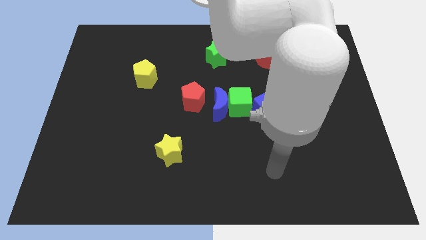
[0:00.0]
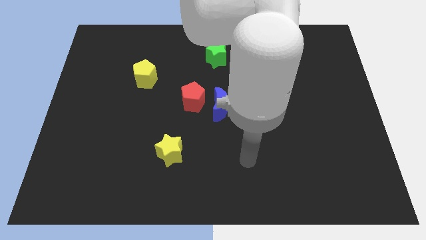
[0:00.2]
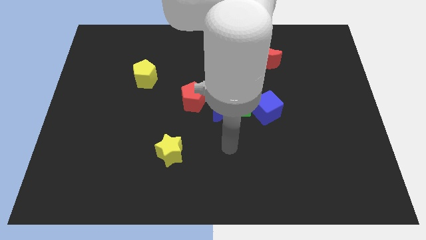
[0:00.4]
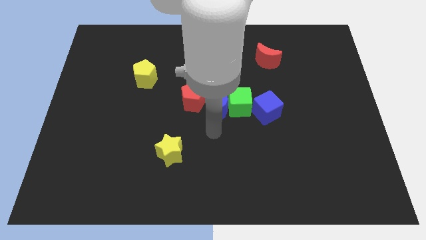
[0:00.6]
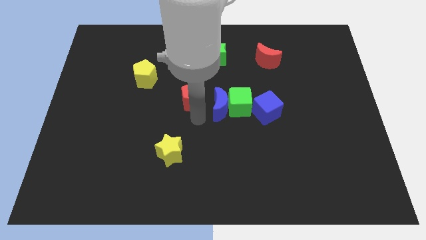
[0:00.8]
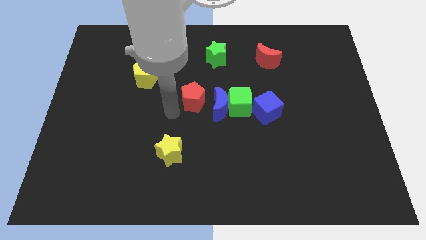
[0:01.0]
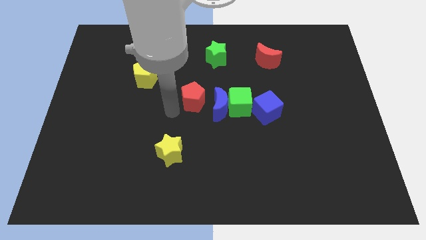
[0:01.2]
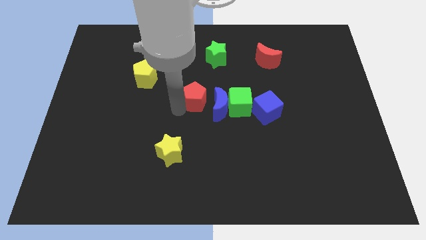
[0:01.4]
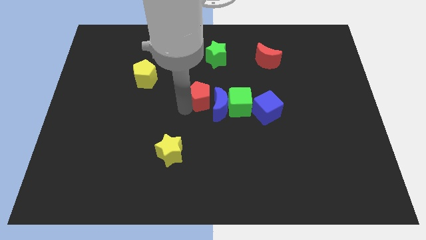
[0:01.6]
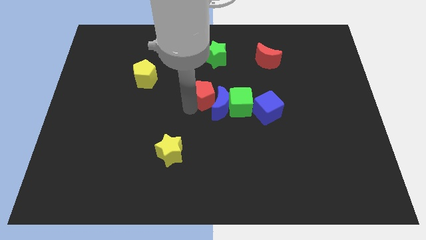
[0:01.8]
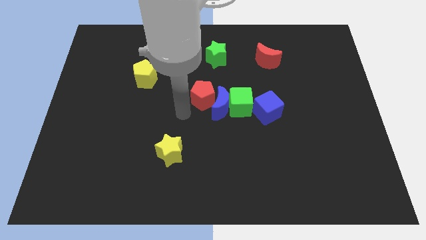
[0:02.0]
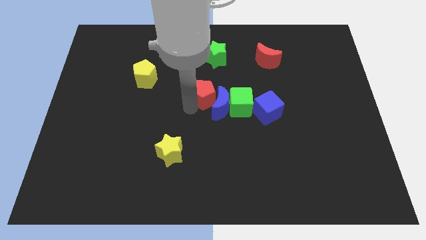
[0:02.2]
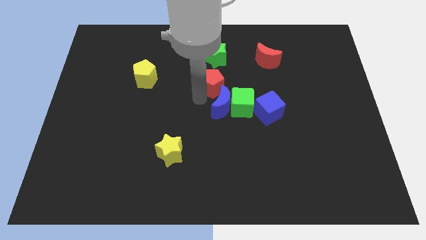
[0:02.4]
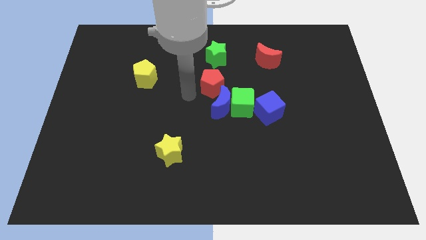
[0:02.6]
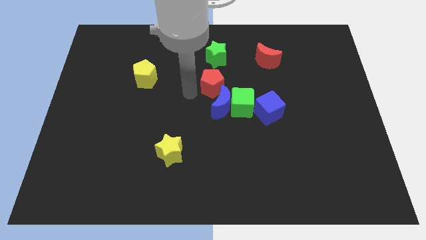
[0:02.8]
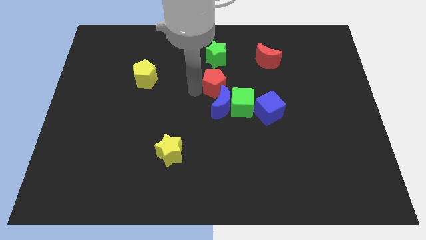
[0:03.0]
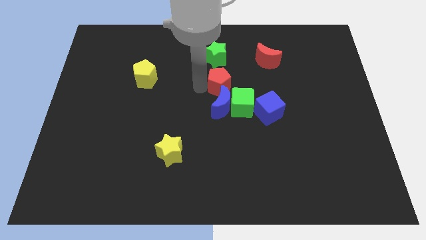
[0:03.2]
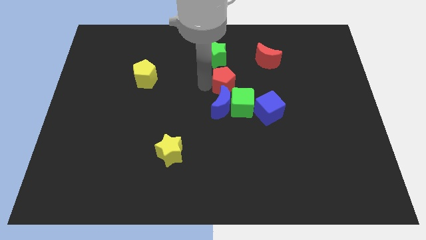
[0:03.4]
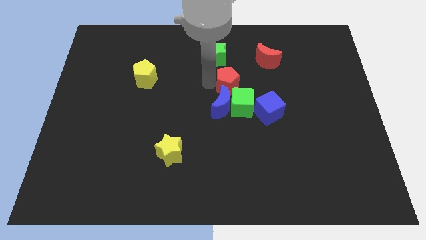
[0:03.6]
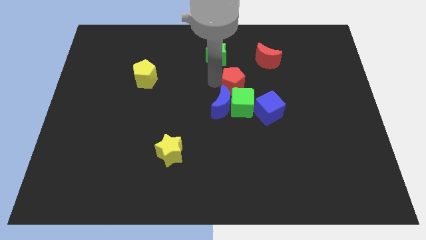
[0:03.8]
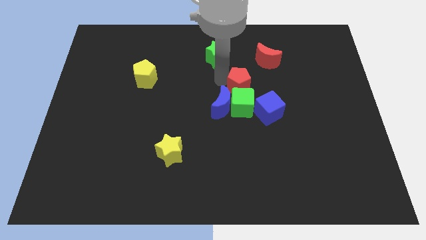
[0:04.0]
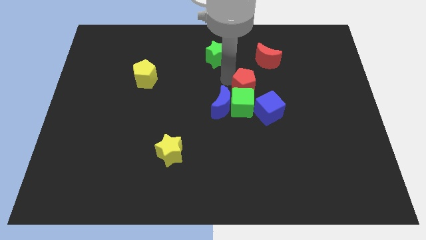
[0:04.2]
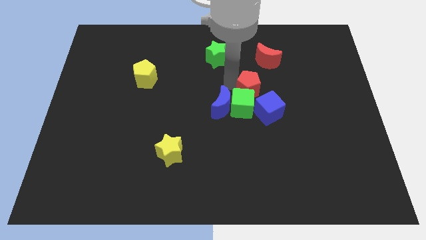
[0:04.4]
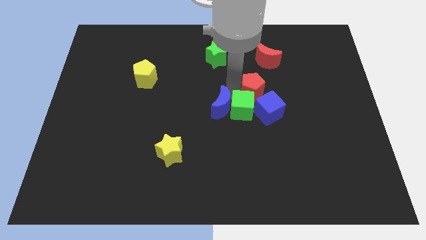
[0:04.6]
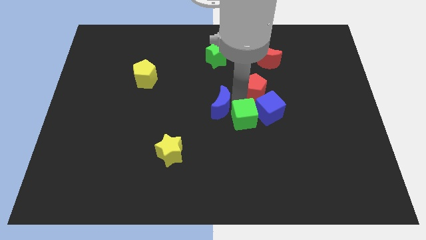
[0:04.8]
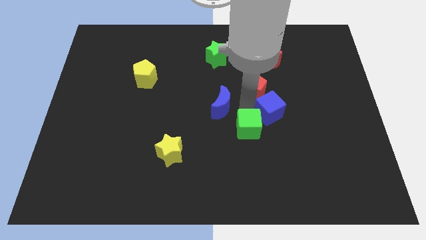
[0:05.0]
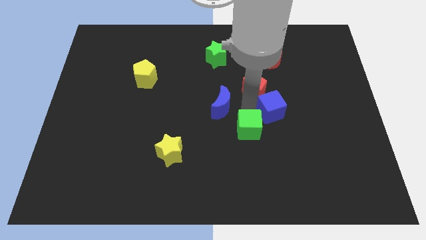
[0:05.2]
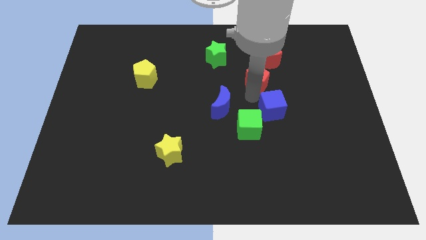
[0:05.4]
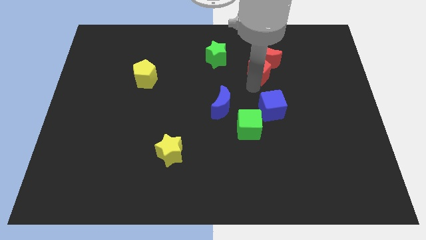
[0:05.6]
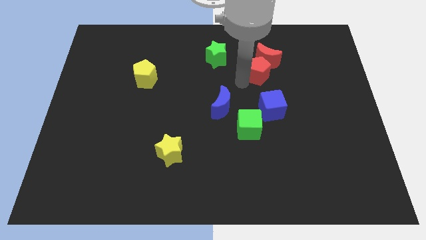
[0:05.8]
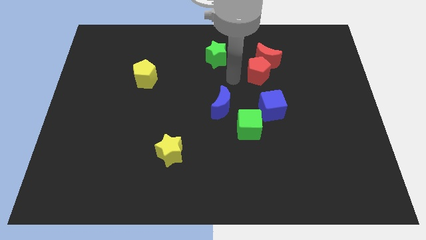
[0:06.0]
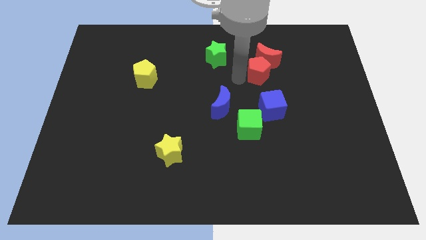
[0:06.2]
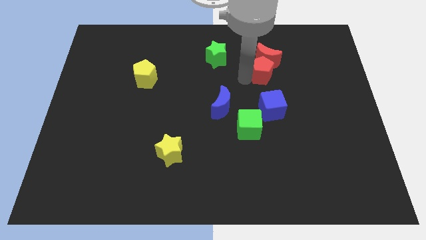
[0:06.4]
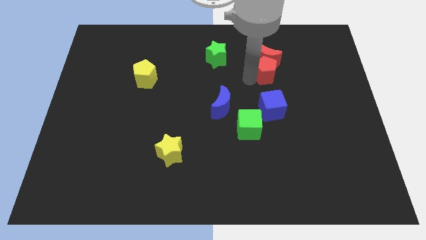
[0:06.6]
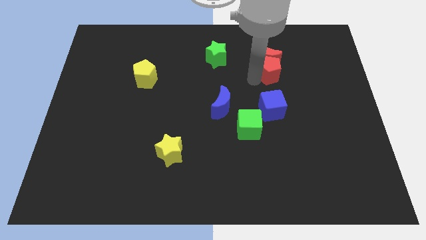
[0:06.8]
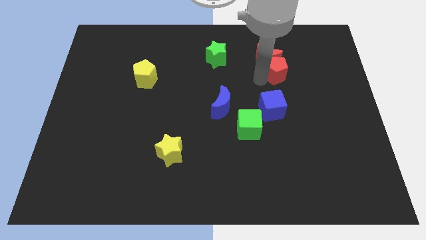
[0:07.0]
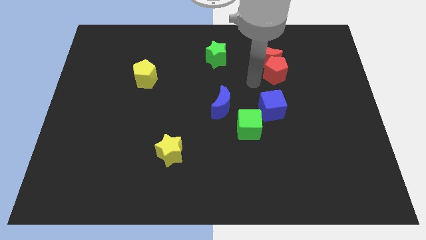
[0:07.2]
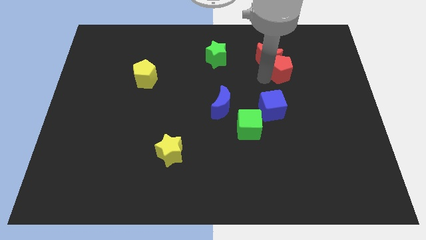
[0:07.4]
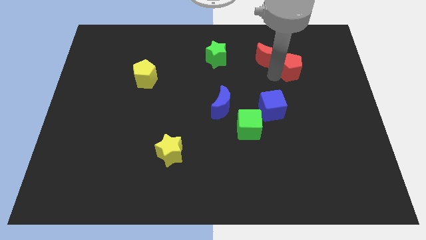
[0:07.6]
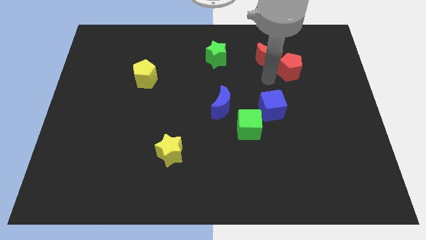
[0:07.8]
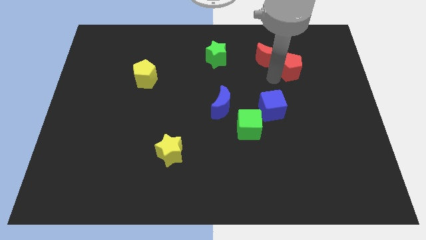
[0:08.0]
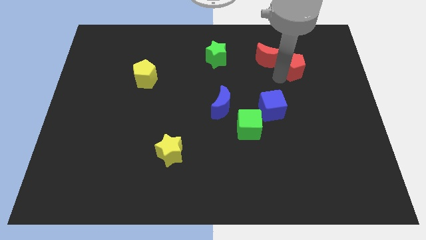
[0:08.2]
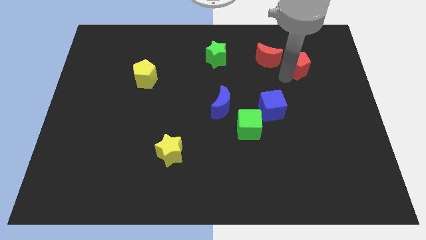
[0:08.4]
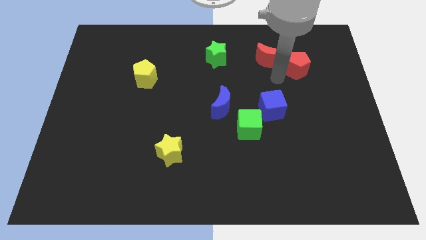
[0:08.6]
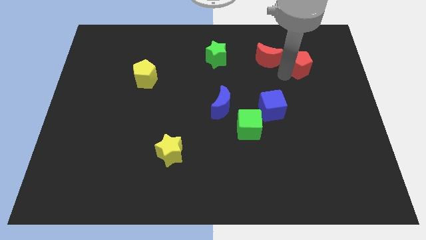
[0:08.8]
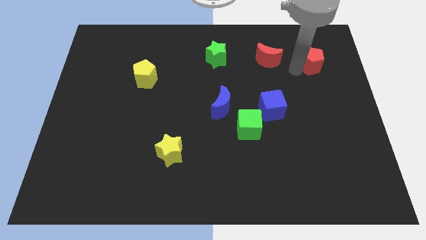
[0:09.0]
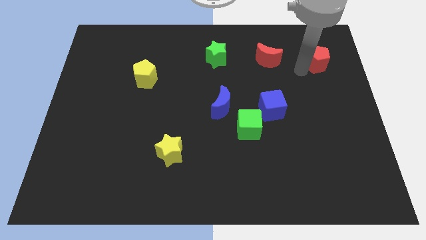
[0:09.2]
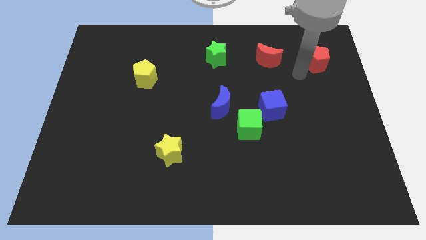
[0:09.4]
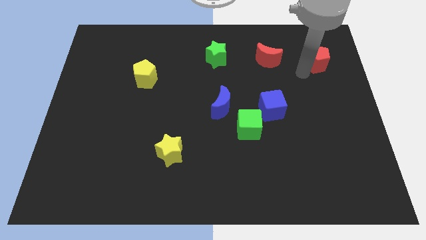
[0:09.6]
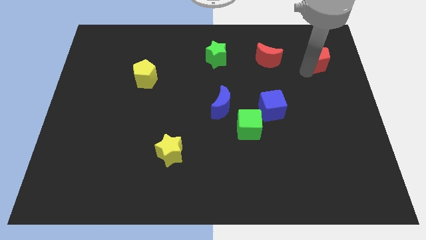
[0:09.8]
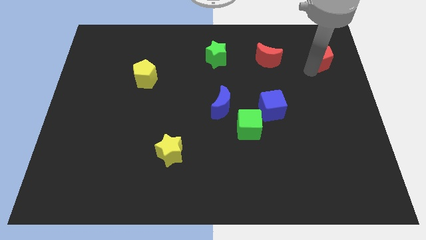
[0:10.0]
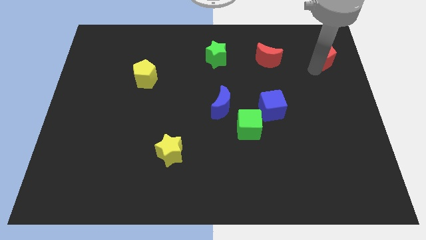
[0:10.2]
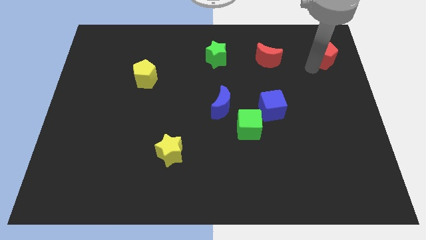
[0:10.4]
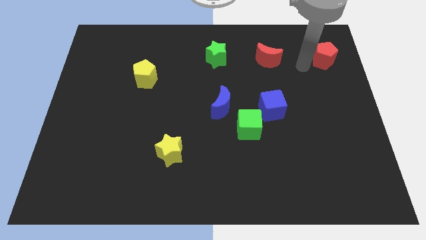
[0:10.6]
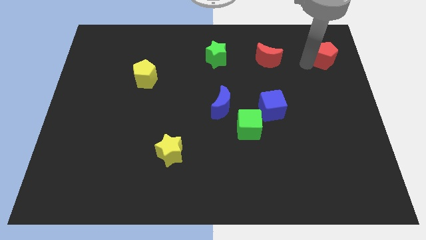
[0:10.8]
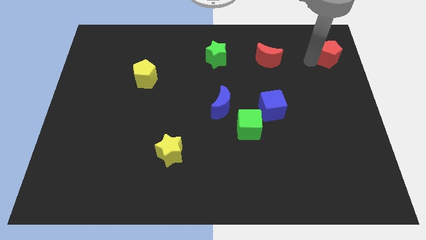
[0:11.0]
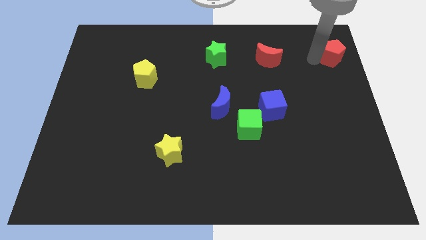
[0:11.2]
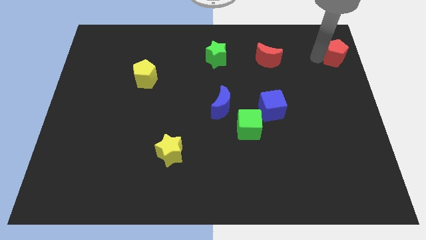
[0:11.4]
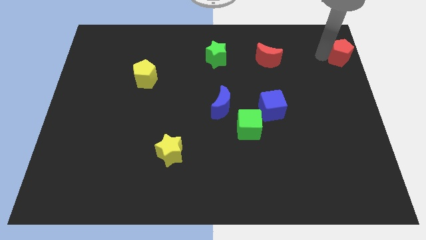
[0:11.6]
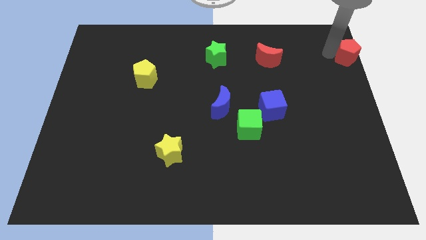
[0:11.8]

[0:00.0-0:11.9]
move the red pentagon to the top right

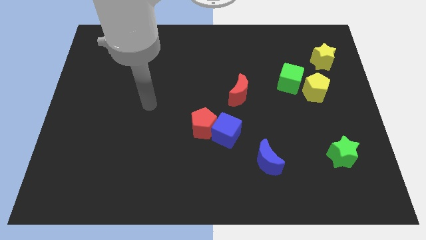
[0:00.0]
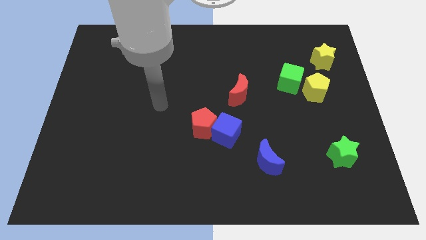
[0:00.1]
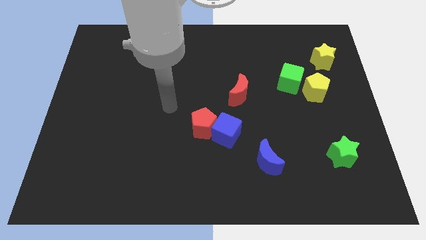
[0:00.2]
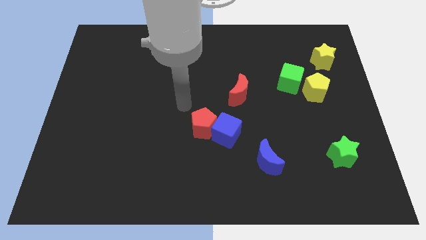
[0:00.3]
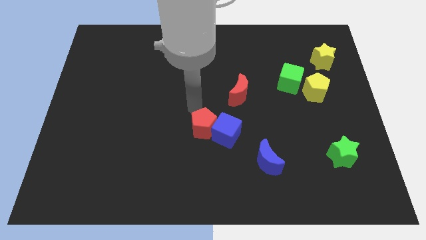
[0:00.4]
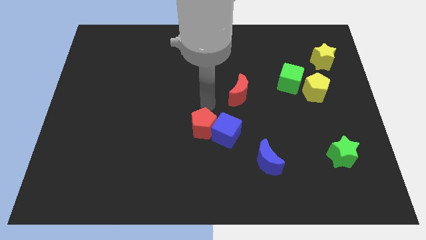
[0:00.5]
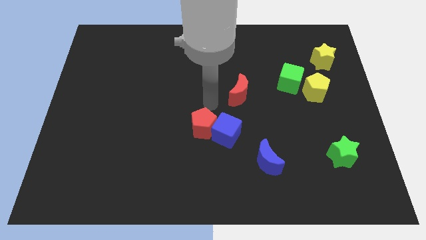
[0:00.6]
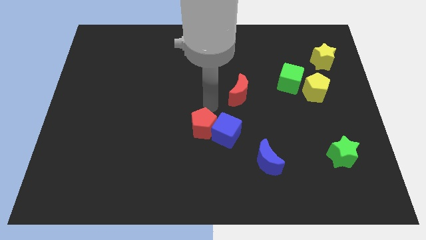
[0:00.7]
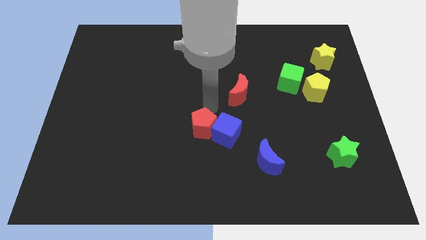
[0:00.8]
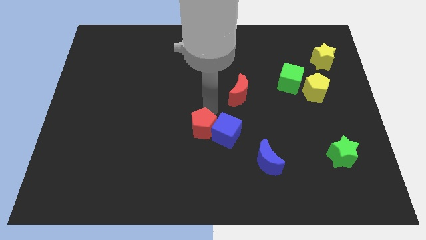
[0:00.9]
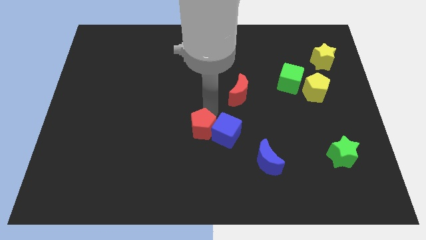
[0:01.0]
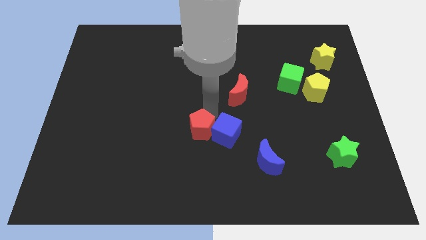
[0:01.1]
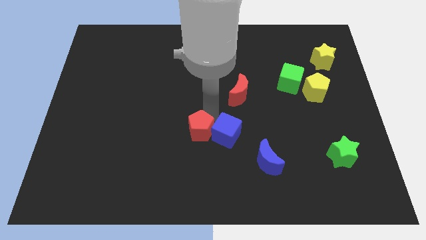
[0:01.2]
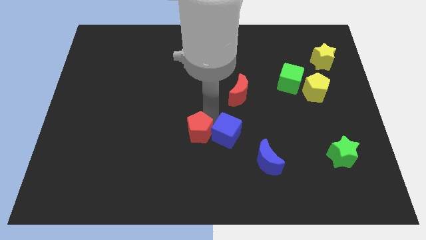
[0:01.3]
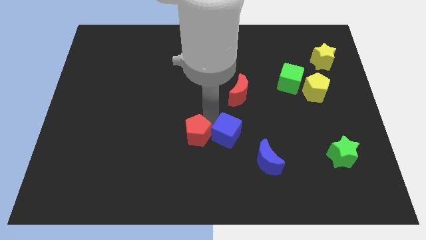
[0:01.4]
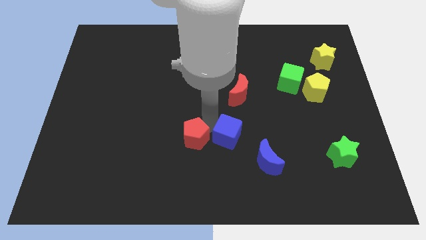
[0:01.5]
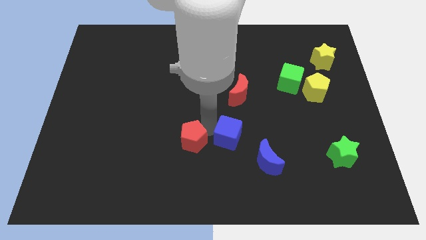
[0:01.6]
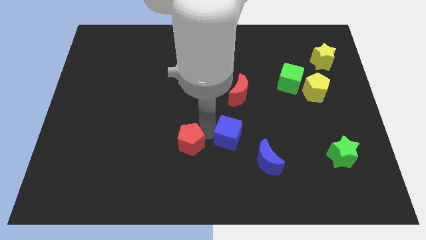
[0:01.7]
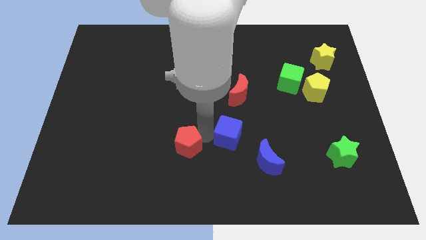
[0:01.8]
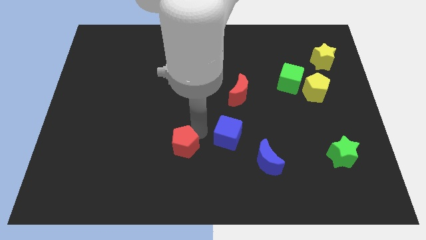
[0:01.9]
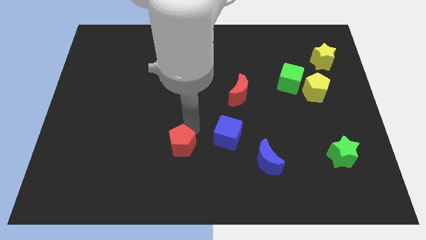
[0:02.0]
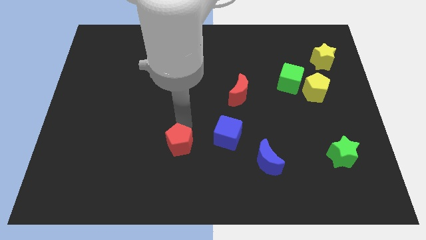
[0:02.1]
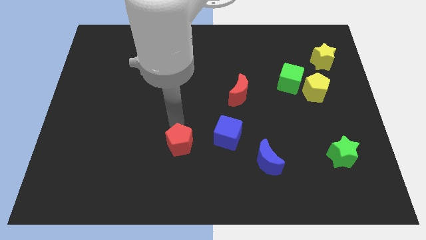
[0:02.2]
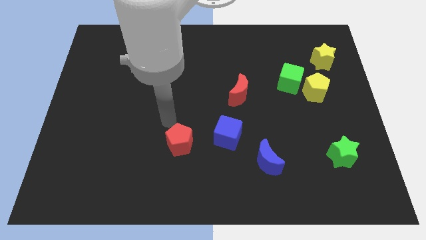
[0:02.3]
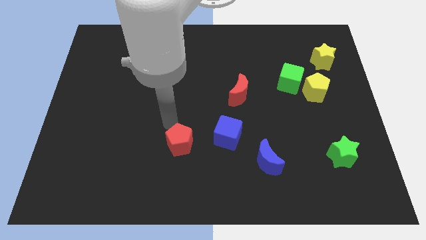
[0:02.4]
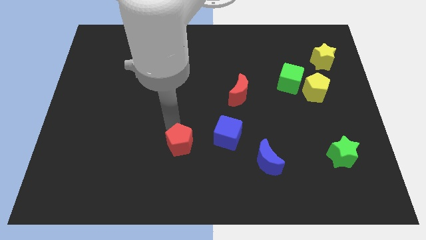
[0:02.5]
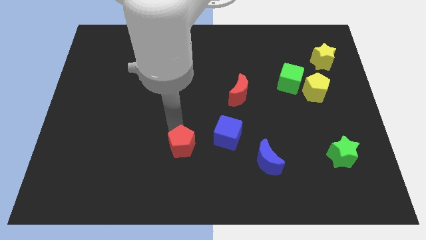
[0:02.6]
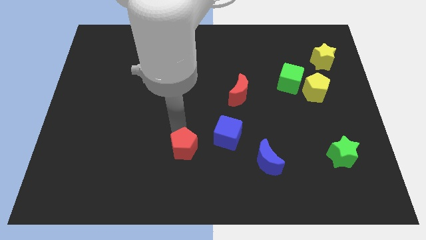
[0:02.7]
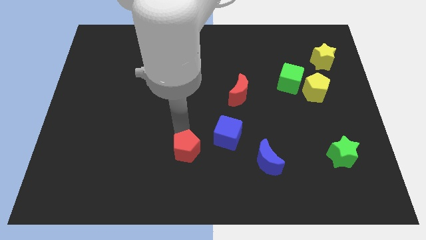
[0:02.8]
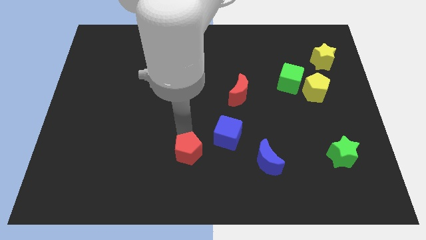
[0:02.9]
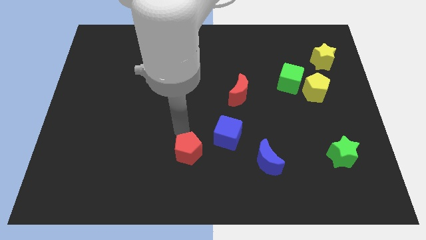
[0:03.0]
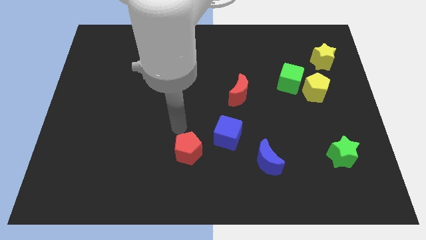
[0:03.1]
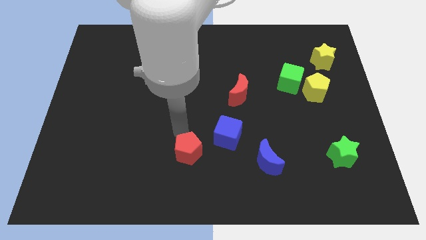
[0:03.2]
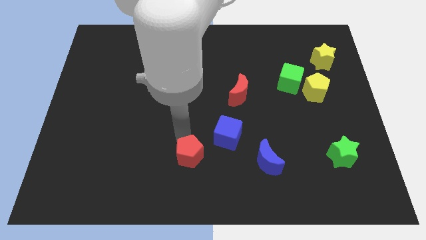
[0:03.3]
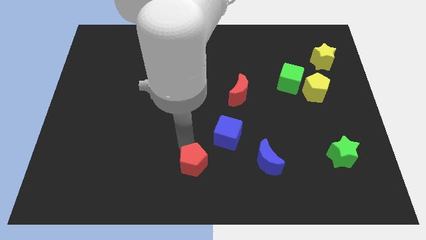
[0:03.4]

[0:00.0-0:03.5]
slide the red pentagon to the bottom
